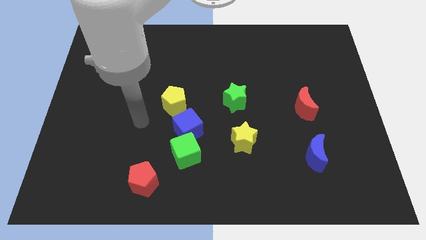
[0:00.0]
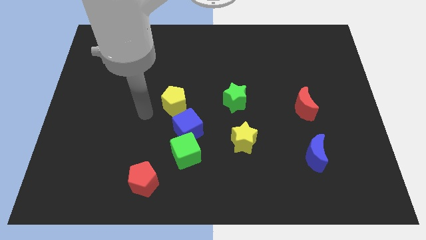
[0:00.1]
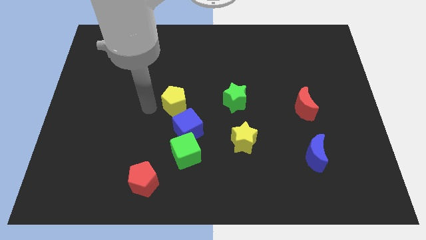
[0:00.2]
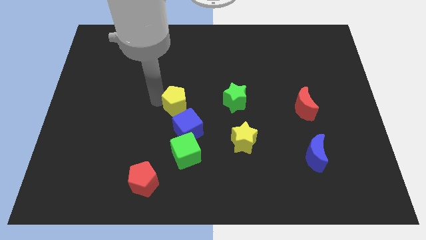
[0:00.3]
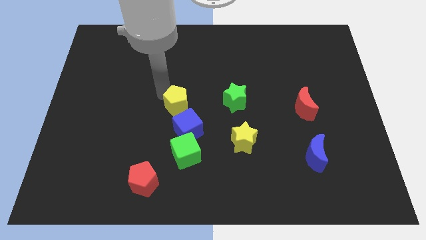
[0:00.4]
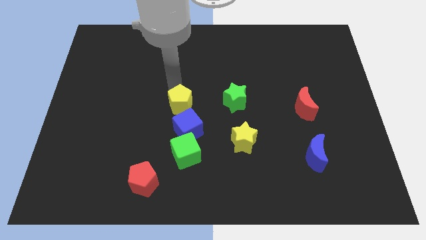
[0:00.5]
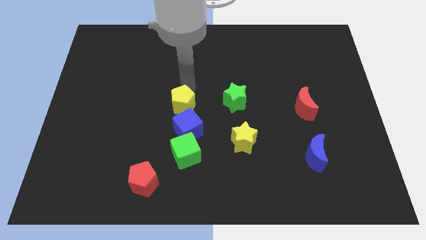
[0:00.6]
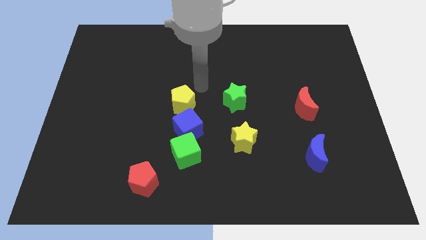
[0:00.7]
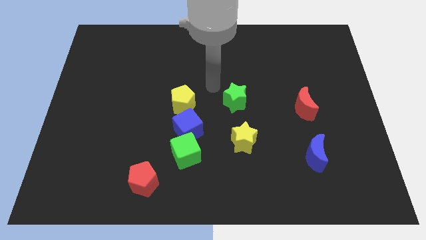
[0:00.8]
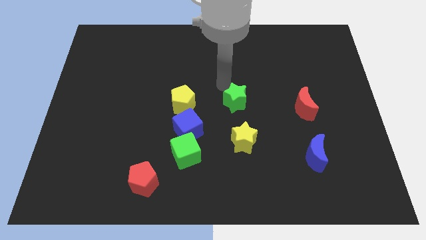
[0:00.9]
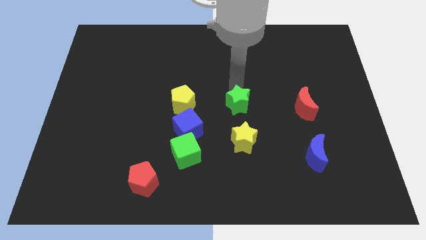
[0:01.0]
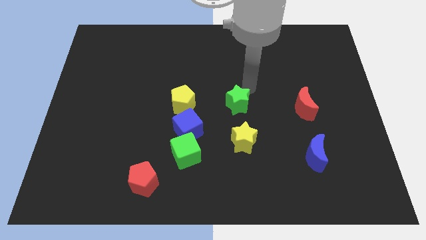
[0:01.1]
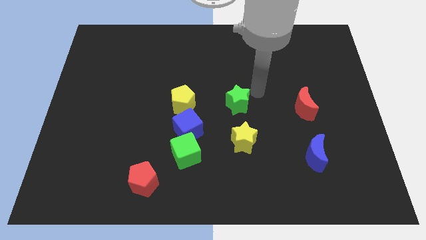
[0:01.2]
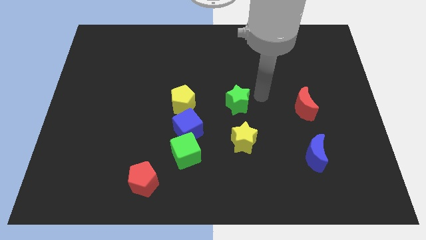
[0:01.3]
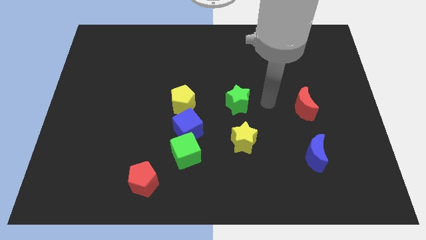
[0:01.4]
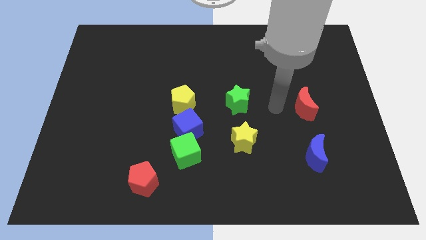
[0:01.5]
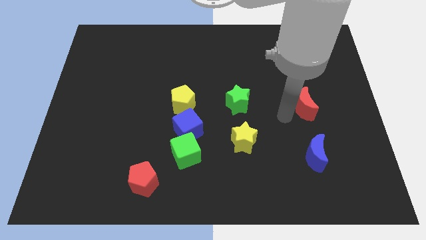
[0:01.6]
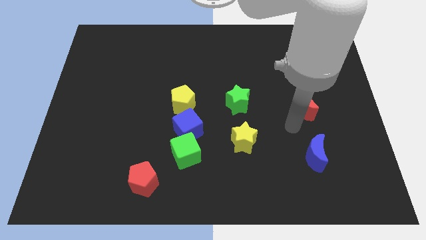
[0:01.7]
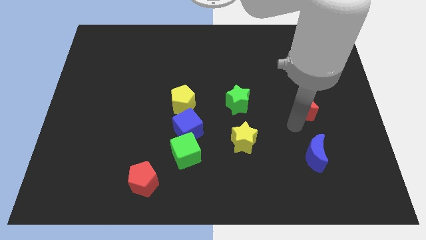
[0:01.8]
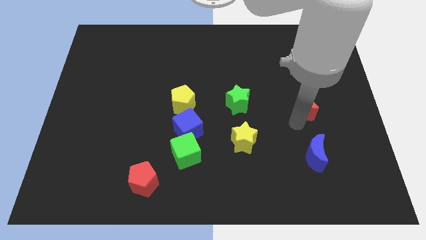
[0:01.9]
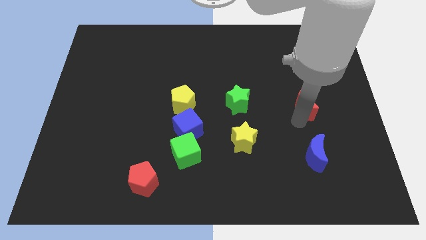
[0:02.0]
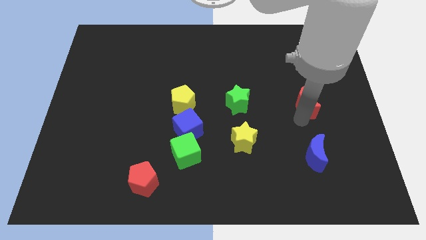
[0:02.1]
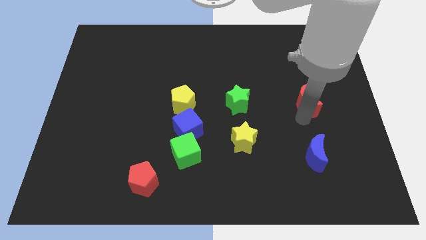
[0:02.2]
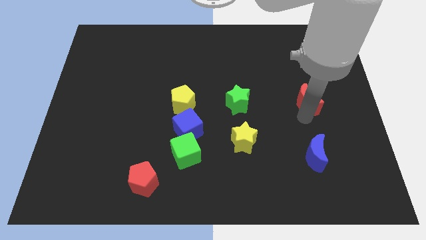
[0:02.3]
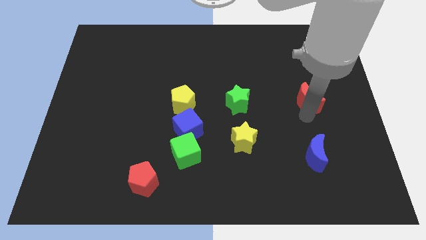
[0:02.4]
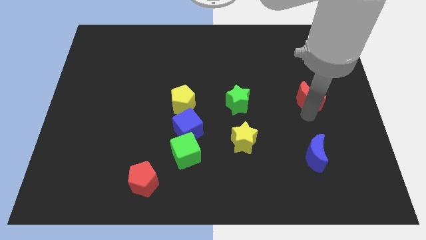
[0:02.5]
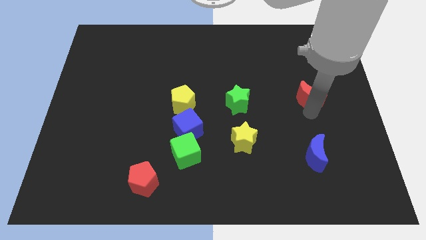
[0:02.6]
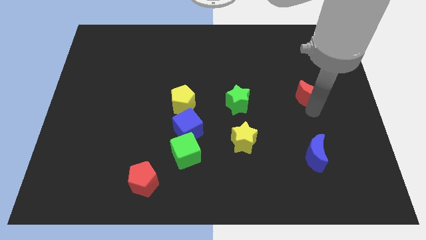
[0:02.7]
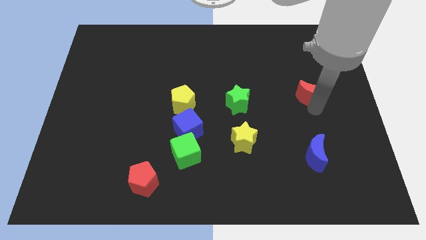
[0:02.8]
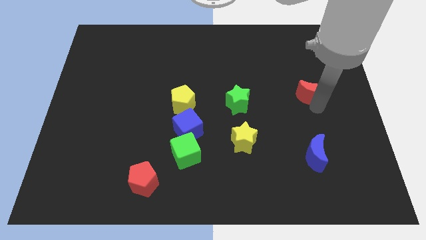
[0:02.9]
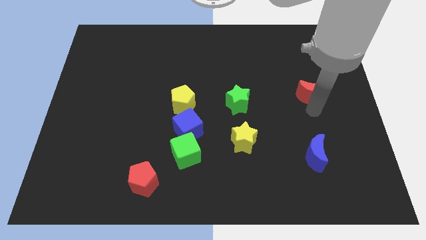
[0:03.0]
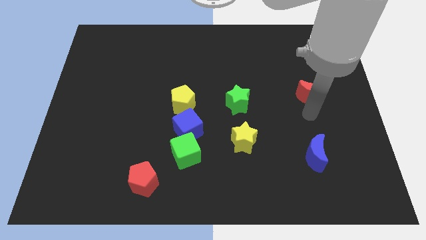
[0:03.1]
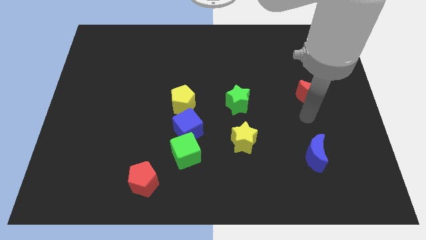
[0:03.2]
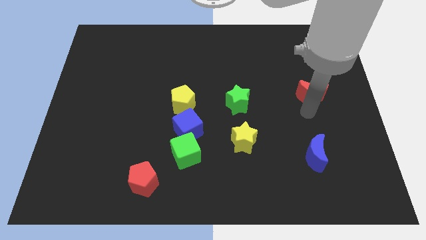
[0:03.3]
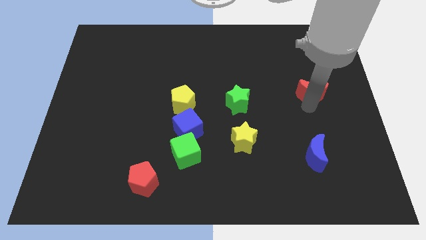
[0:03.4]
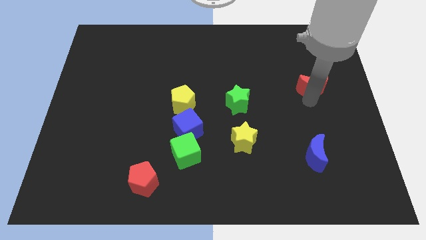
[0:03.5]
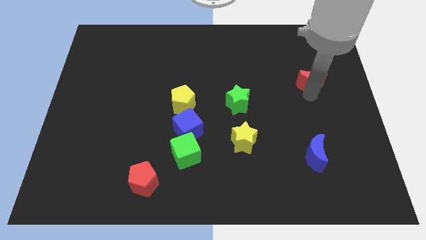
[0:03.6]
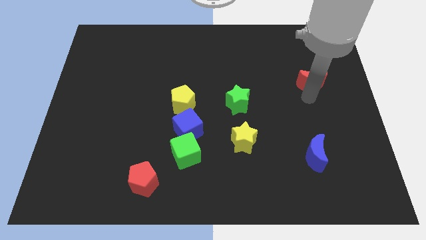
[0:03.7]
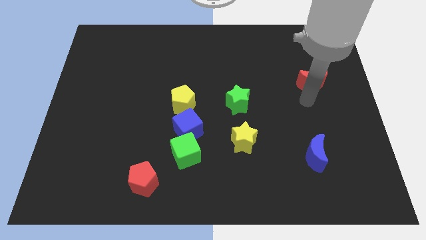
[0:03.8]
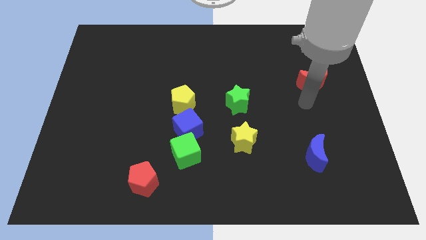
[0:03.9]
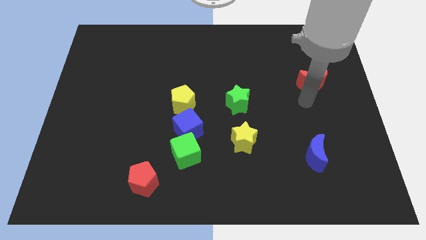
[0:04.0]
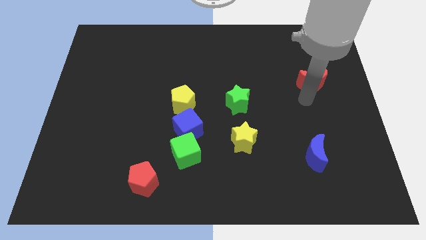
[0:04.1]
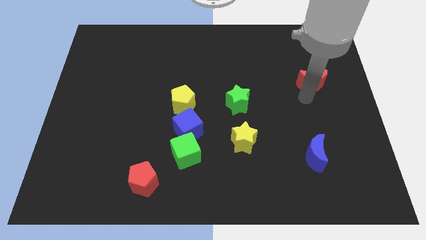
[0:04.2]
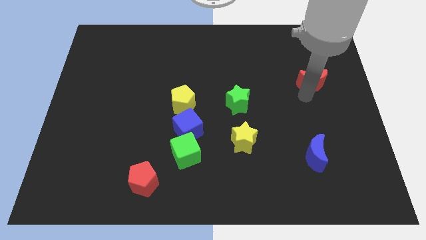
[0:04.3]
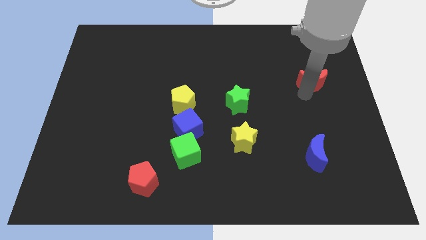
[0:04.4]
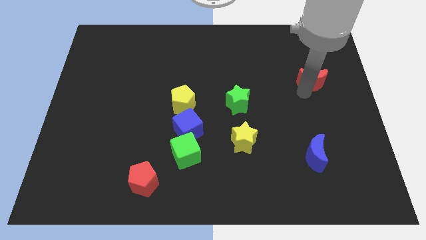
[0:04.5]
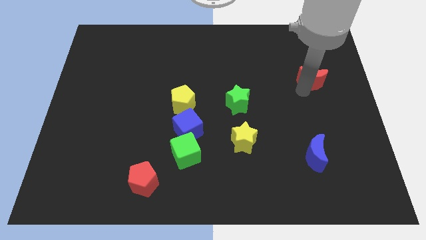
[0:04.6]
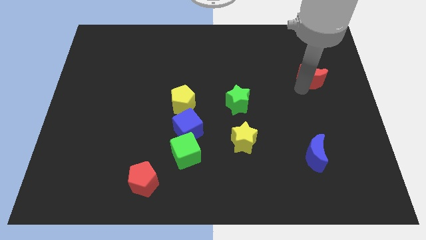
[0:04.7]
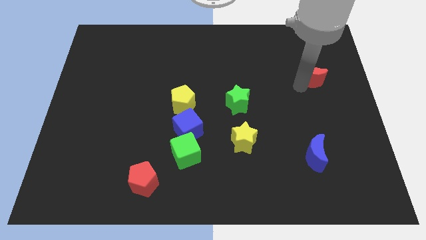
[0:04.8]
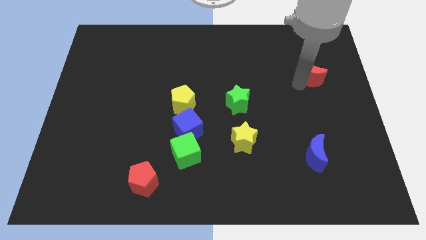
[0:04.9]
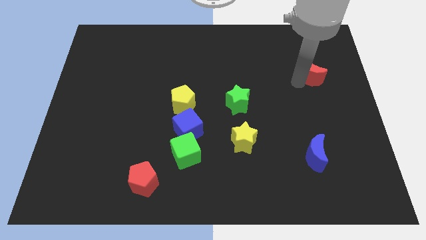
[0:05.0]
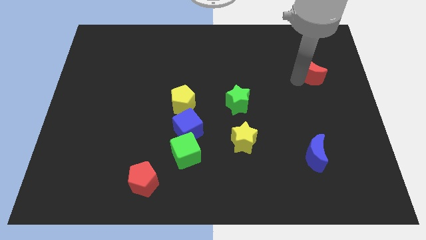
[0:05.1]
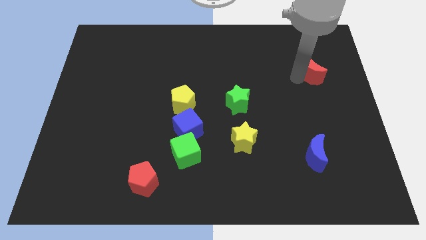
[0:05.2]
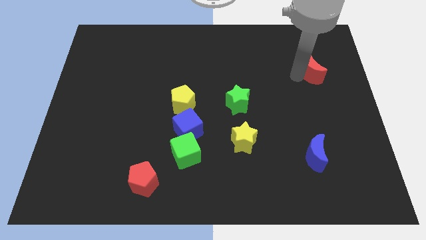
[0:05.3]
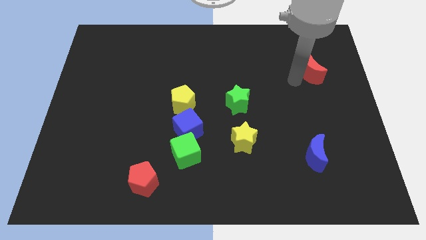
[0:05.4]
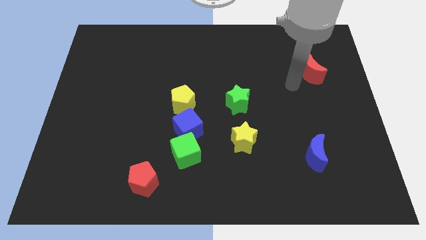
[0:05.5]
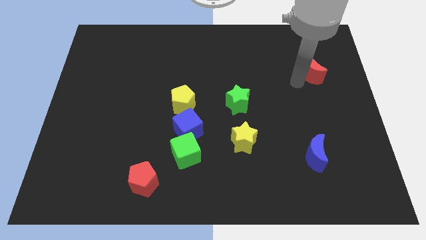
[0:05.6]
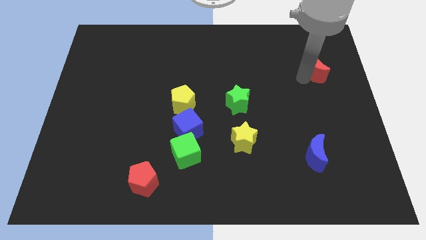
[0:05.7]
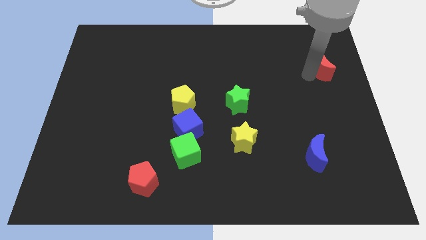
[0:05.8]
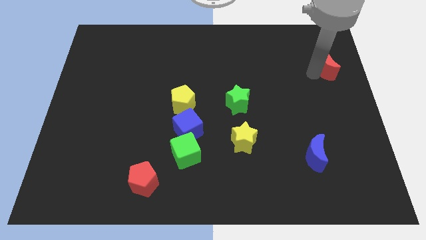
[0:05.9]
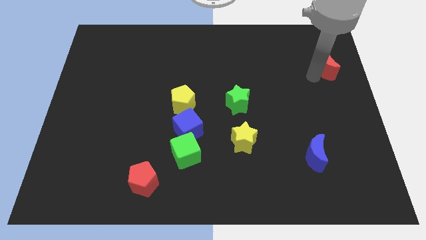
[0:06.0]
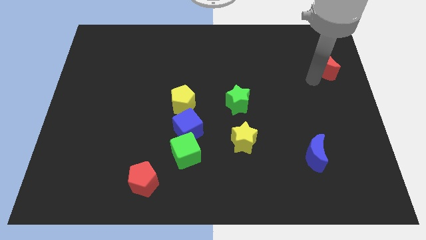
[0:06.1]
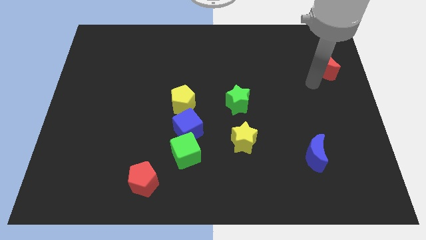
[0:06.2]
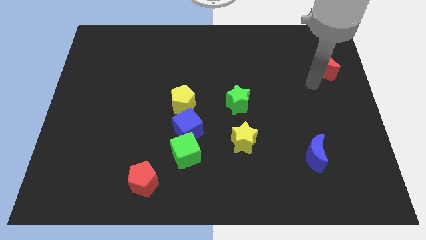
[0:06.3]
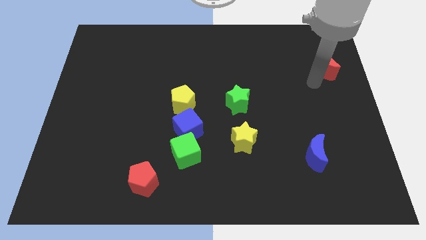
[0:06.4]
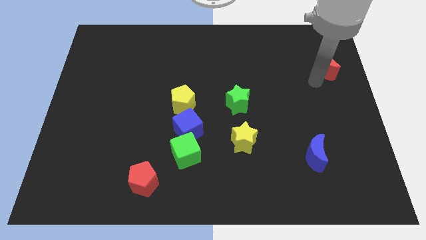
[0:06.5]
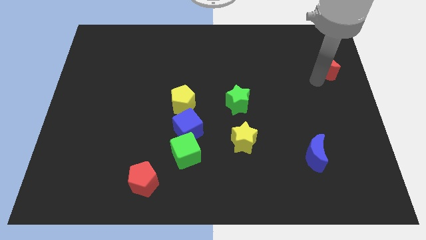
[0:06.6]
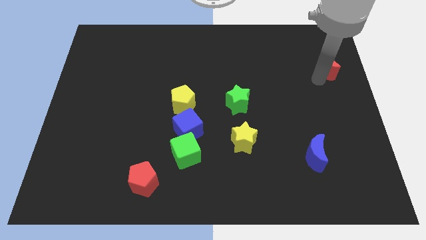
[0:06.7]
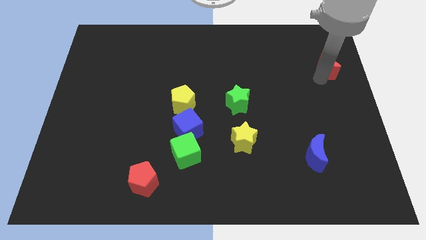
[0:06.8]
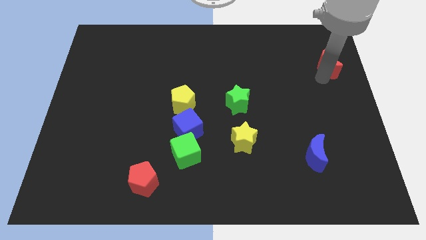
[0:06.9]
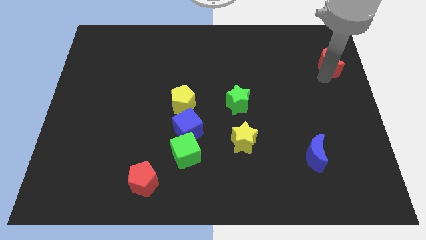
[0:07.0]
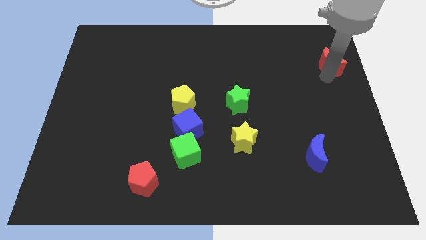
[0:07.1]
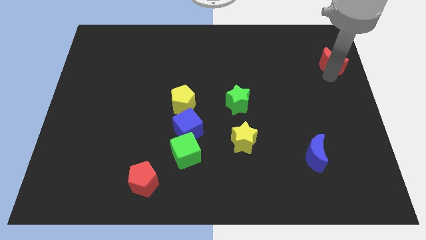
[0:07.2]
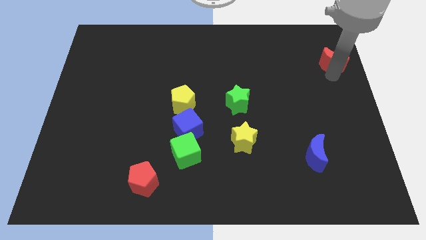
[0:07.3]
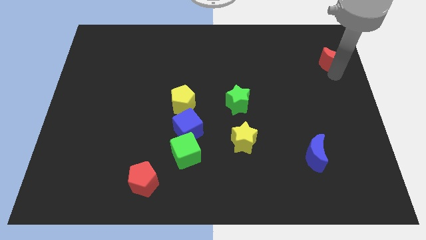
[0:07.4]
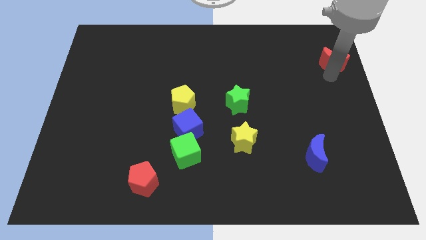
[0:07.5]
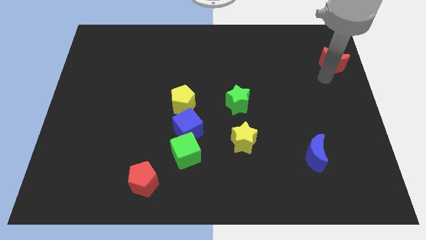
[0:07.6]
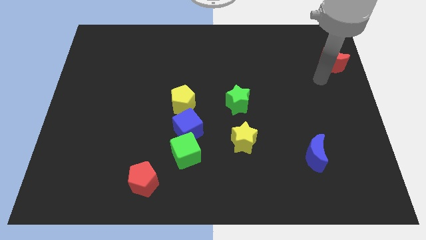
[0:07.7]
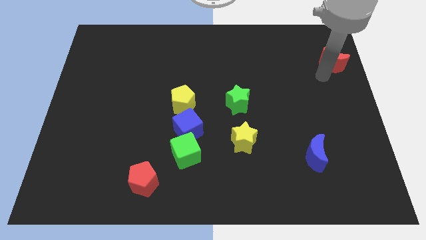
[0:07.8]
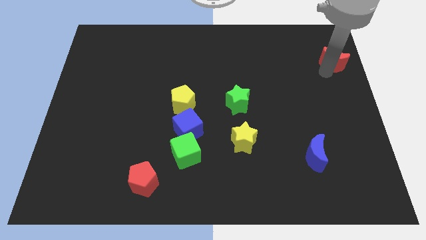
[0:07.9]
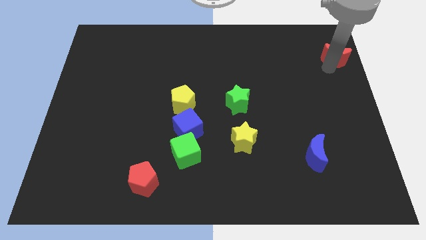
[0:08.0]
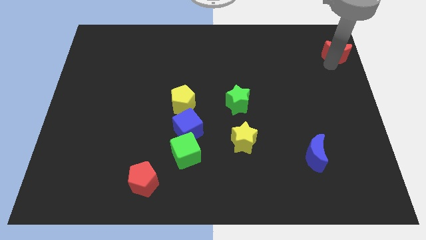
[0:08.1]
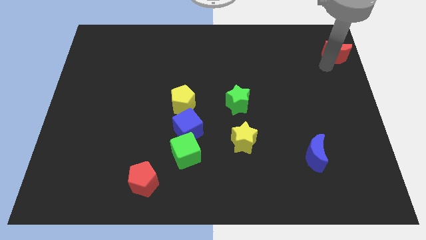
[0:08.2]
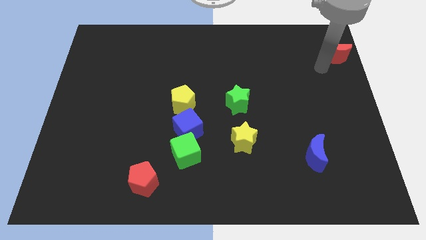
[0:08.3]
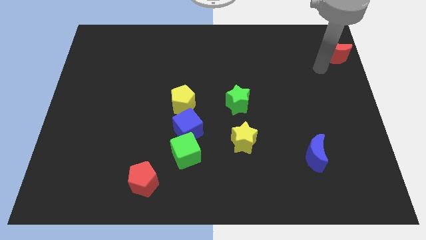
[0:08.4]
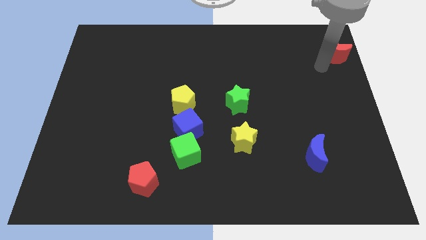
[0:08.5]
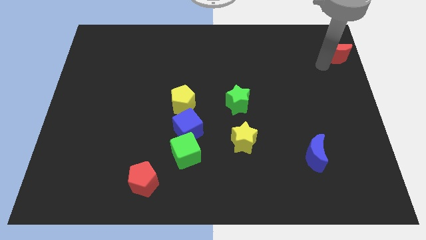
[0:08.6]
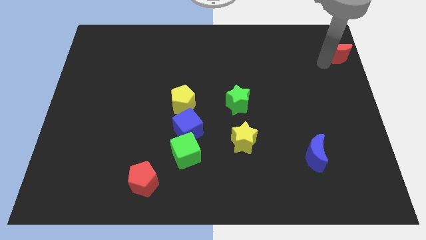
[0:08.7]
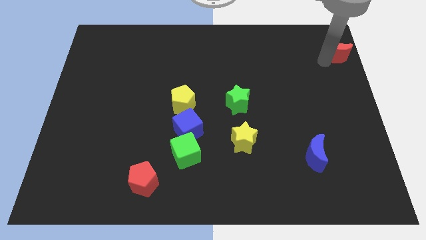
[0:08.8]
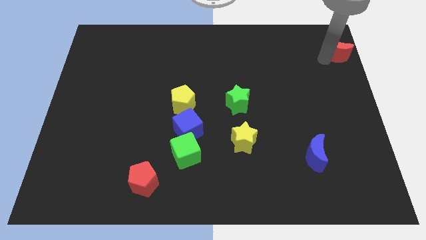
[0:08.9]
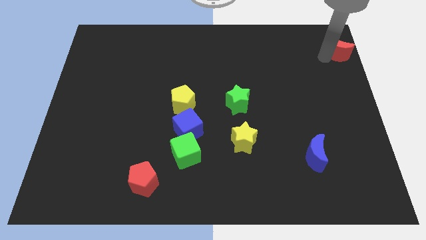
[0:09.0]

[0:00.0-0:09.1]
push the red moon to the top right corner
